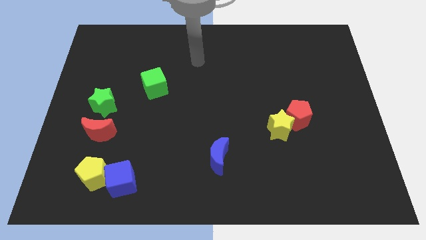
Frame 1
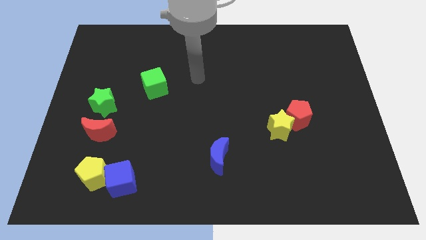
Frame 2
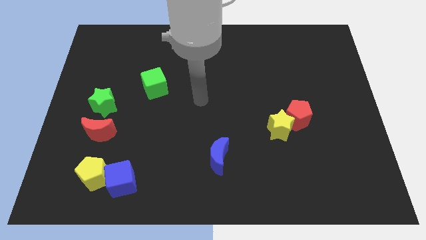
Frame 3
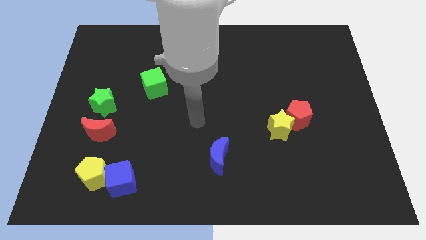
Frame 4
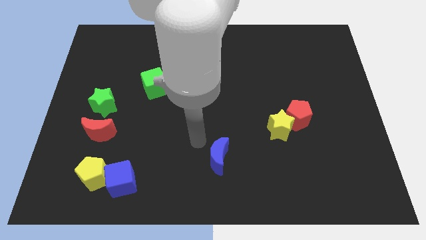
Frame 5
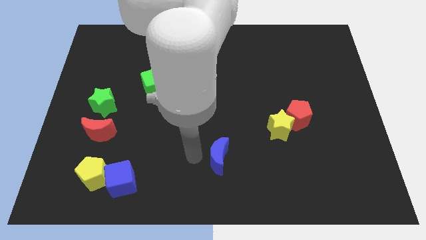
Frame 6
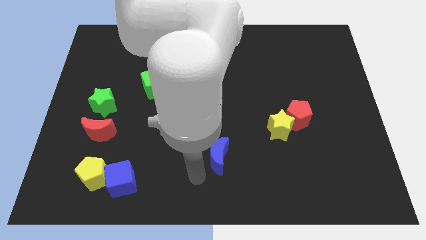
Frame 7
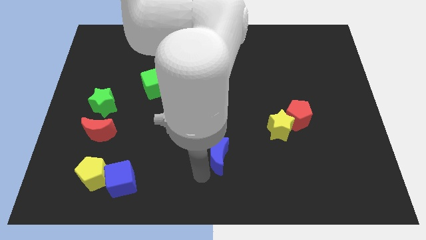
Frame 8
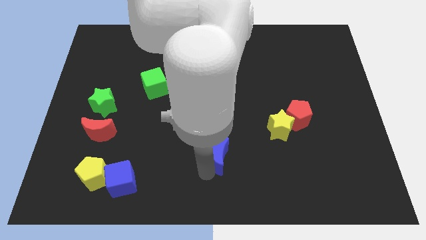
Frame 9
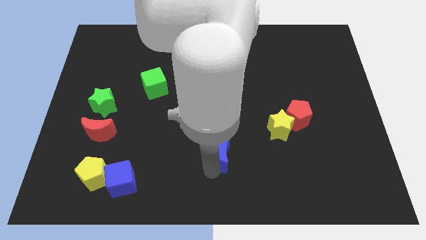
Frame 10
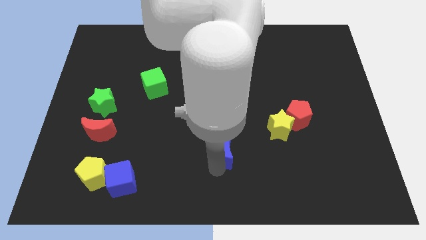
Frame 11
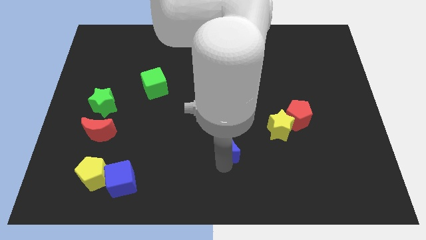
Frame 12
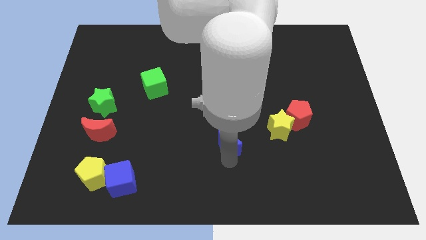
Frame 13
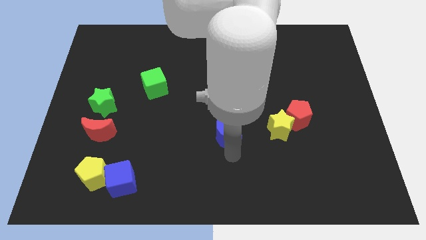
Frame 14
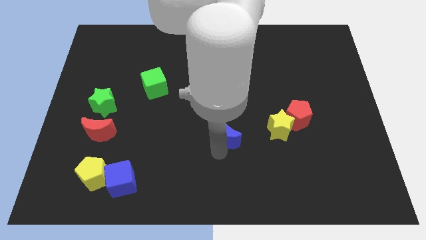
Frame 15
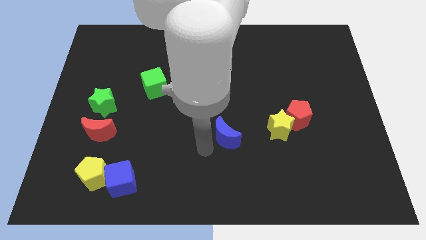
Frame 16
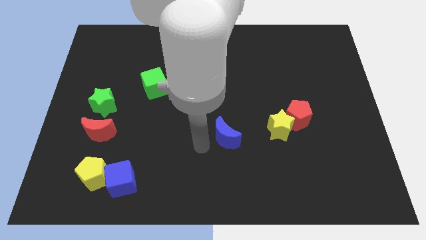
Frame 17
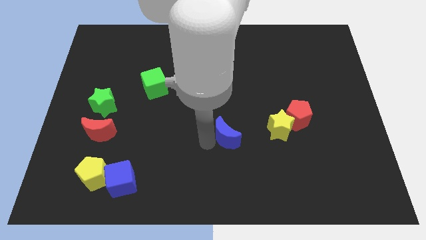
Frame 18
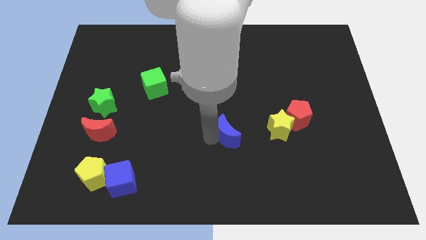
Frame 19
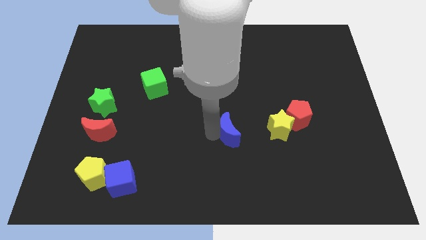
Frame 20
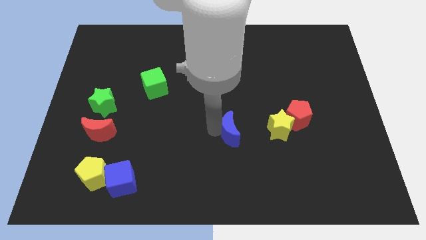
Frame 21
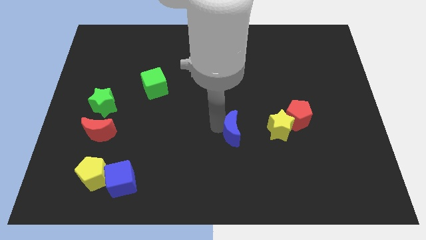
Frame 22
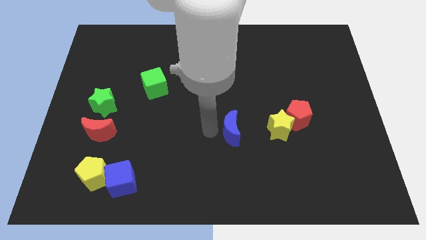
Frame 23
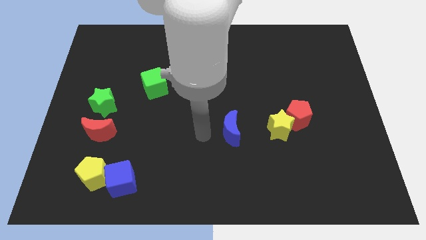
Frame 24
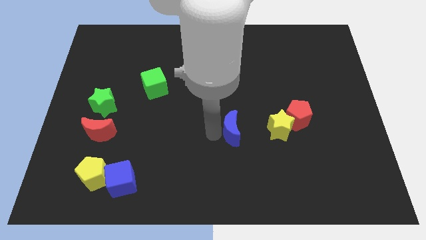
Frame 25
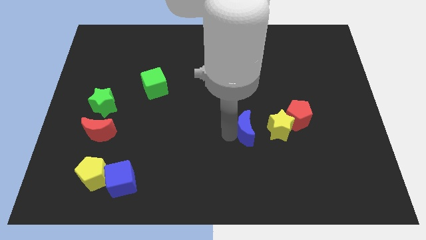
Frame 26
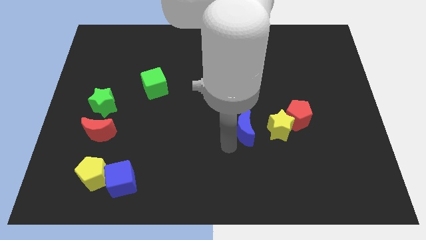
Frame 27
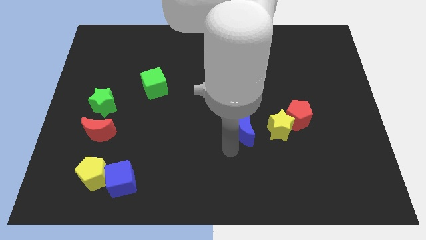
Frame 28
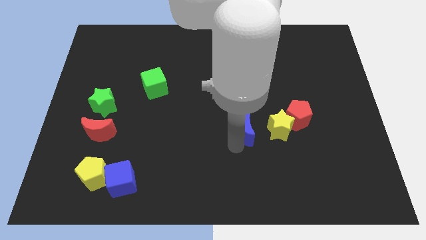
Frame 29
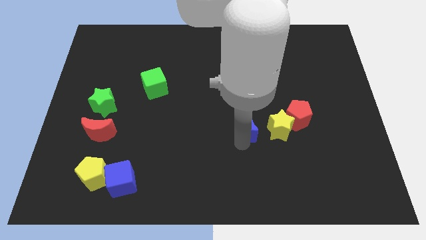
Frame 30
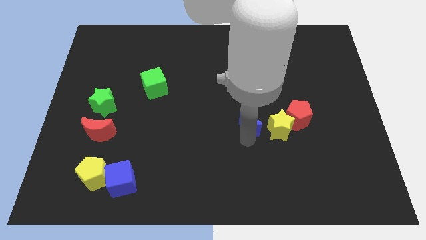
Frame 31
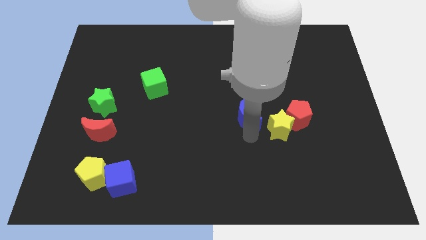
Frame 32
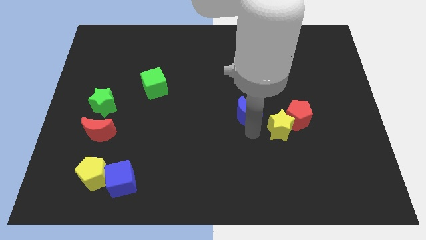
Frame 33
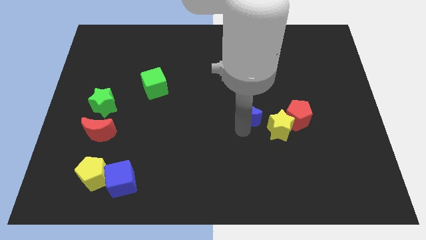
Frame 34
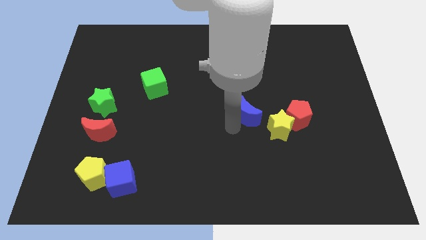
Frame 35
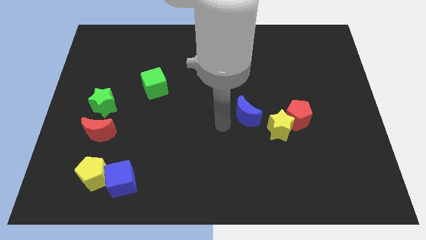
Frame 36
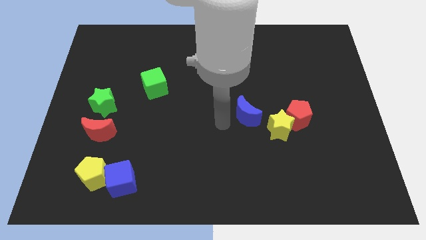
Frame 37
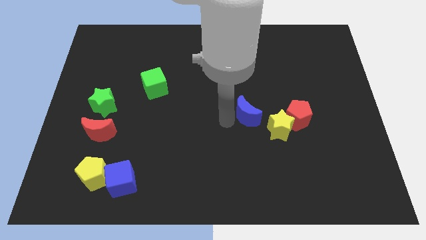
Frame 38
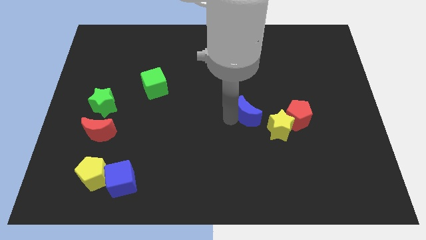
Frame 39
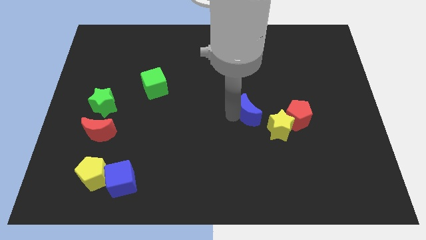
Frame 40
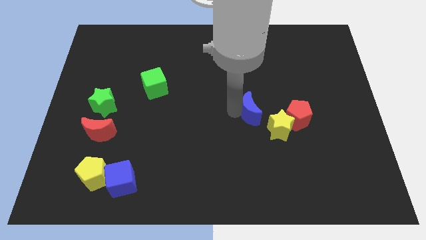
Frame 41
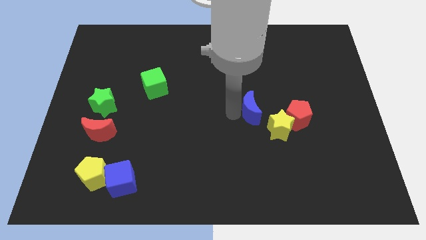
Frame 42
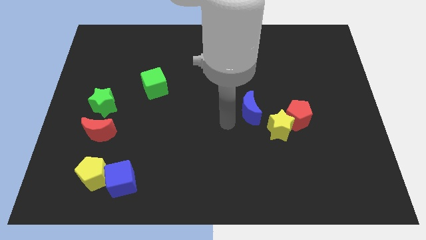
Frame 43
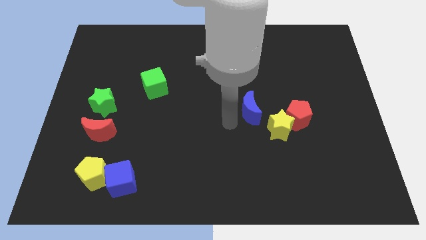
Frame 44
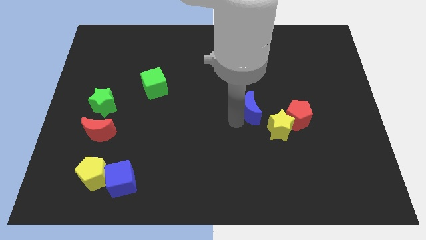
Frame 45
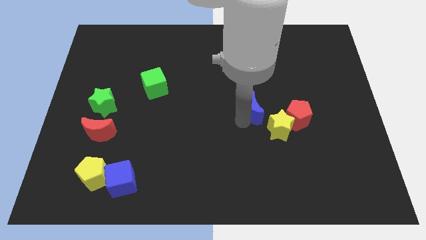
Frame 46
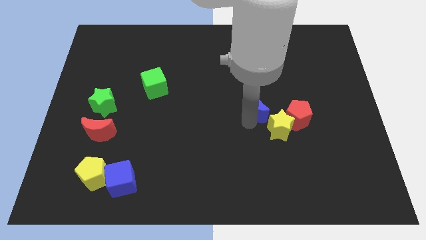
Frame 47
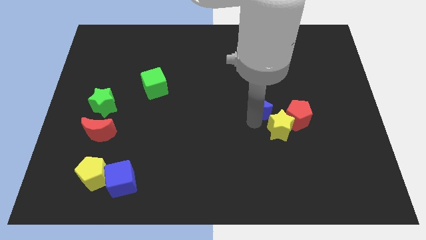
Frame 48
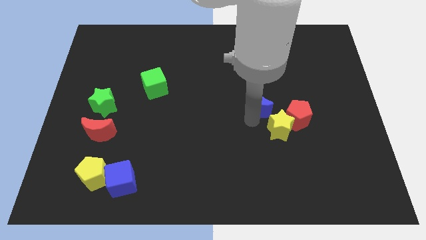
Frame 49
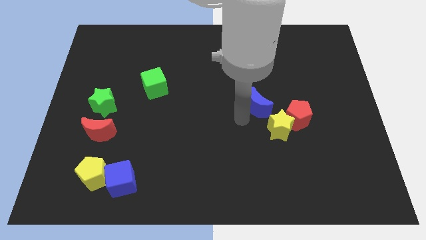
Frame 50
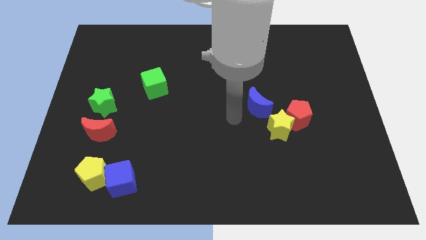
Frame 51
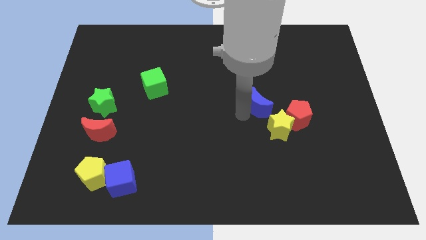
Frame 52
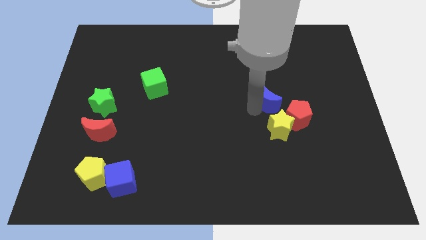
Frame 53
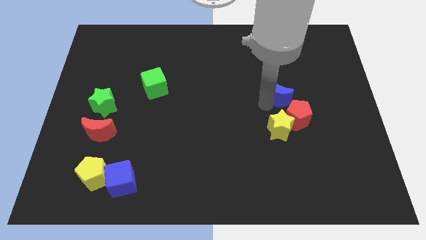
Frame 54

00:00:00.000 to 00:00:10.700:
slide the blue moon above the red pentagon

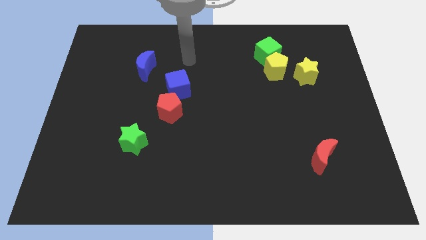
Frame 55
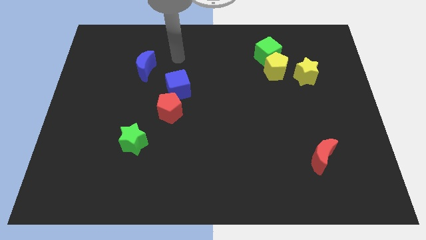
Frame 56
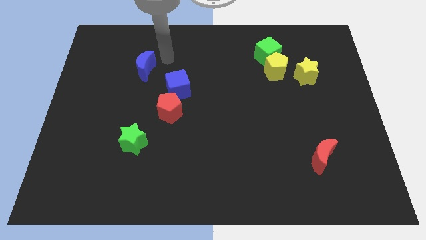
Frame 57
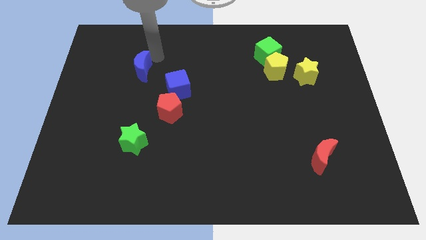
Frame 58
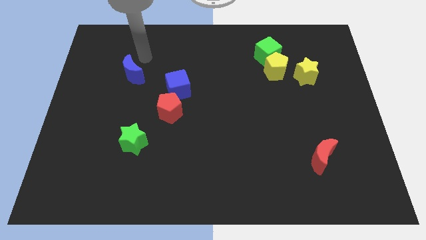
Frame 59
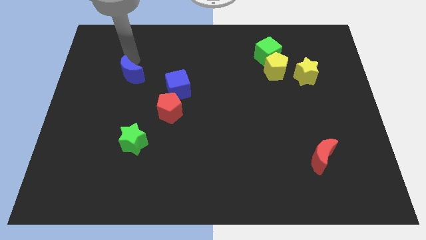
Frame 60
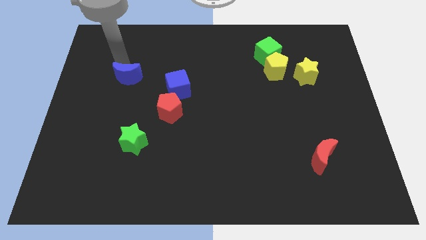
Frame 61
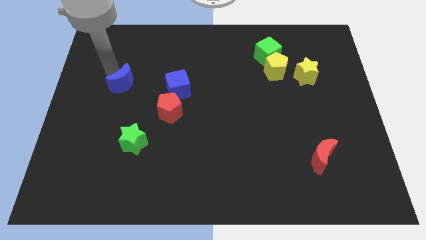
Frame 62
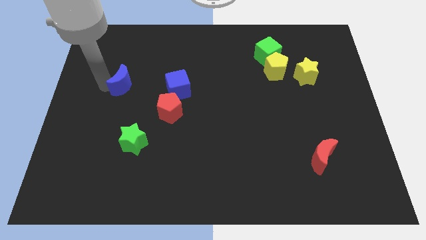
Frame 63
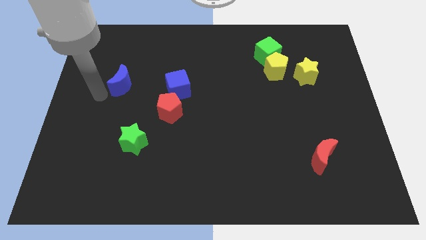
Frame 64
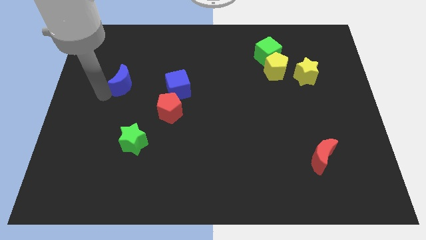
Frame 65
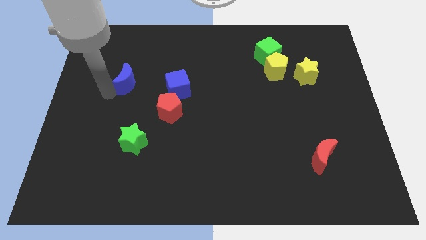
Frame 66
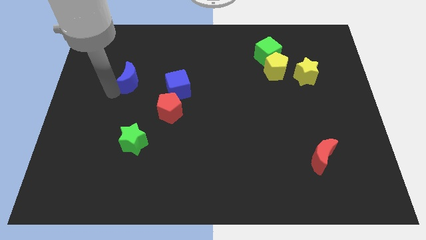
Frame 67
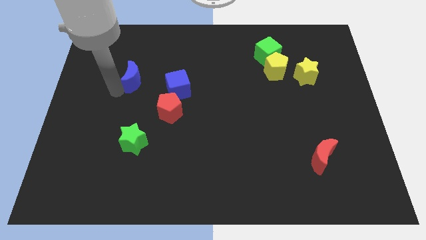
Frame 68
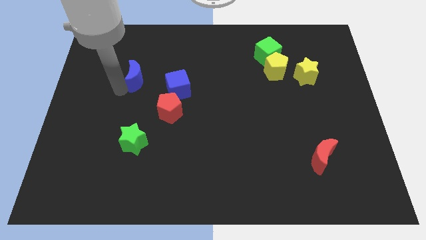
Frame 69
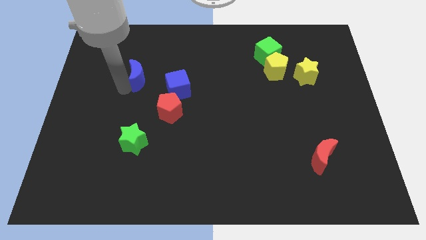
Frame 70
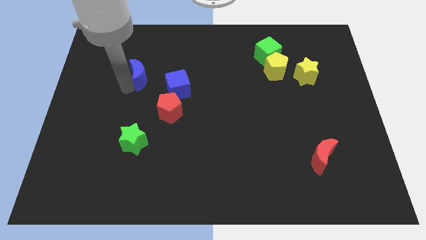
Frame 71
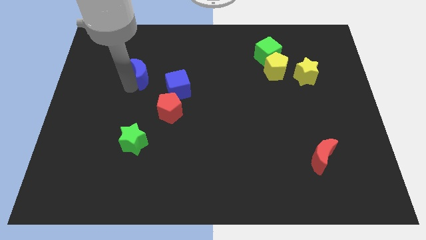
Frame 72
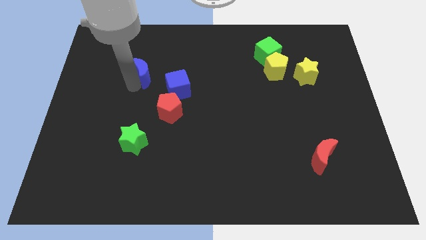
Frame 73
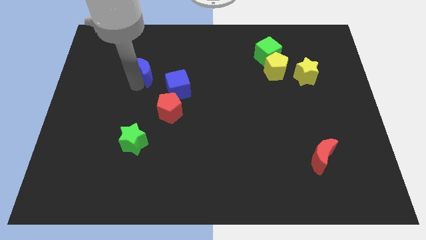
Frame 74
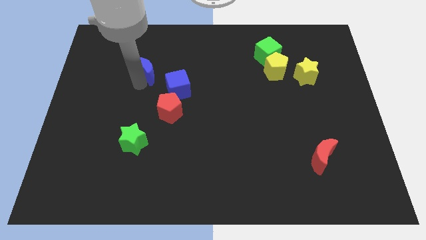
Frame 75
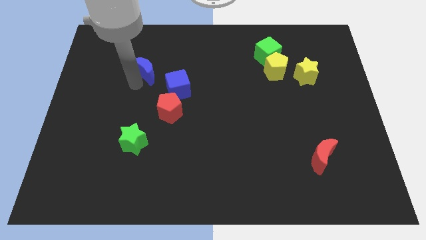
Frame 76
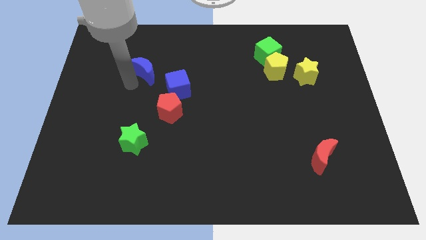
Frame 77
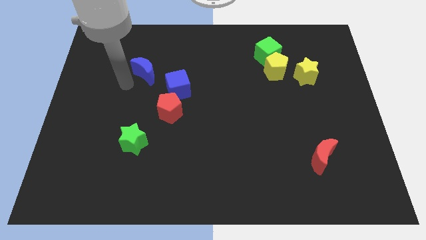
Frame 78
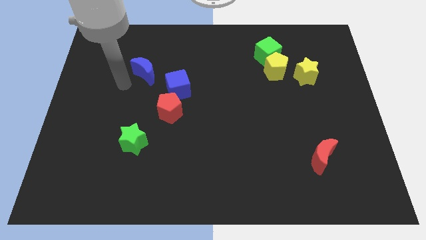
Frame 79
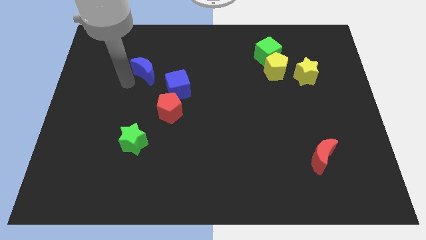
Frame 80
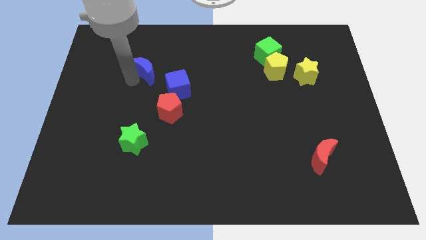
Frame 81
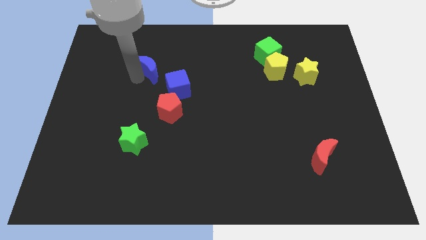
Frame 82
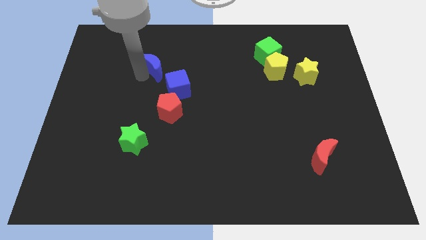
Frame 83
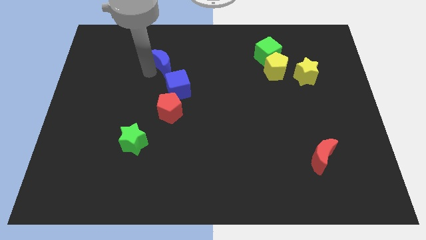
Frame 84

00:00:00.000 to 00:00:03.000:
slide the blue moon to the top of the blue cube
